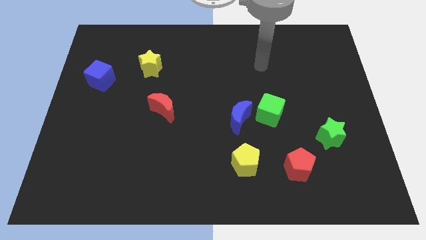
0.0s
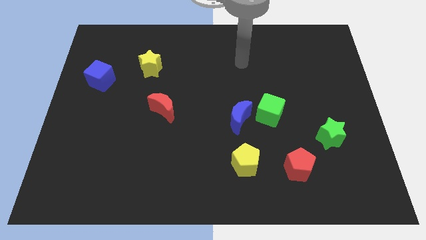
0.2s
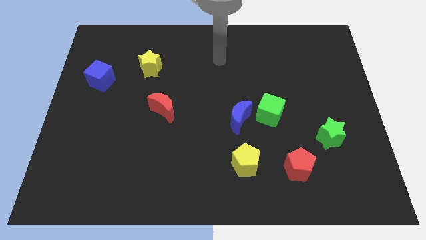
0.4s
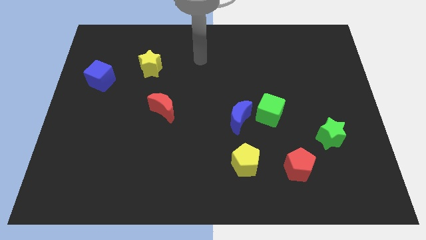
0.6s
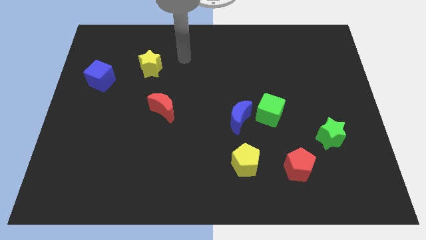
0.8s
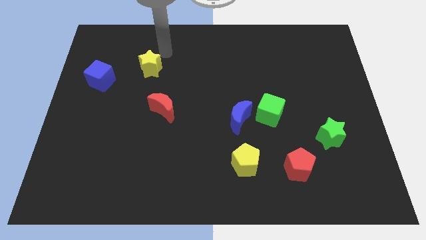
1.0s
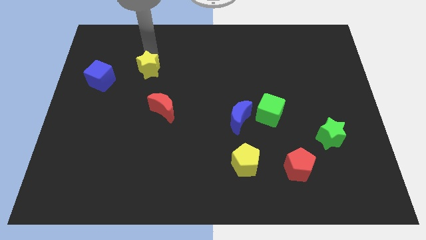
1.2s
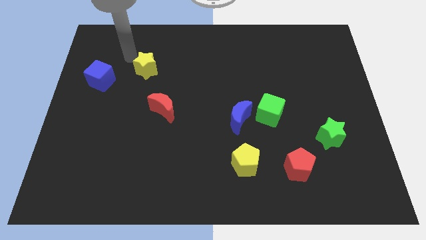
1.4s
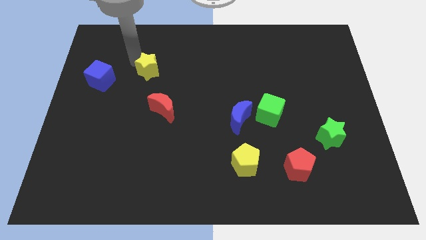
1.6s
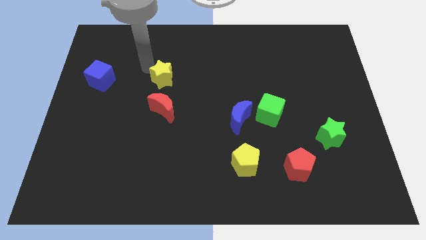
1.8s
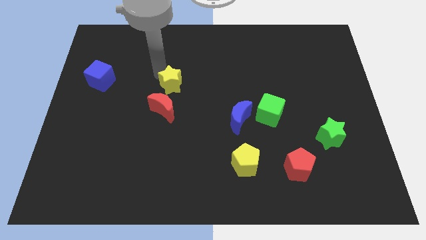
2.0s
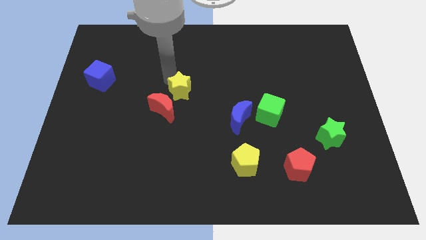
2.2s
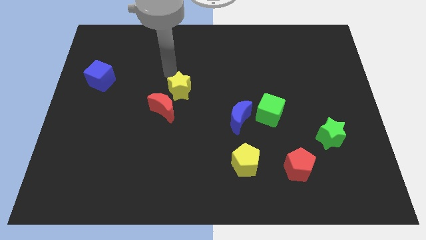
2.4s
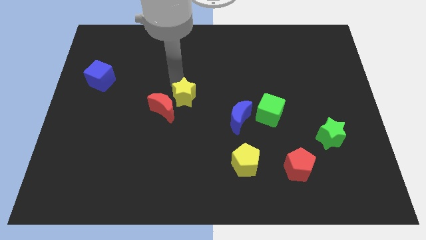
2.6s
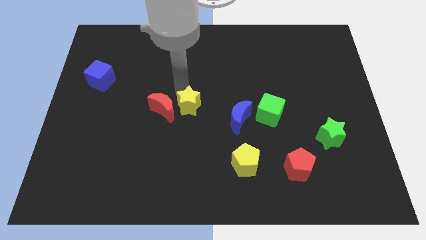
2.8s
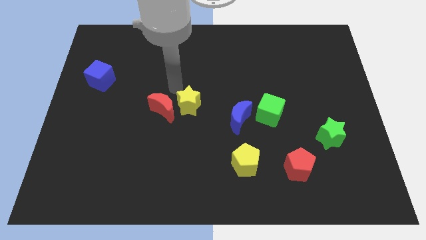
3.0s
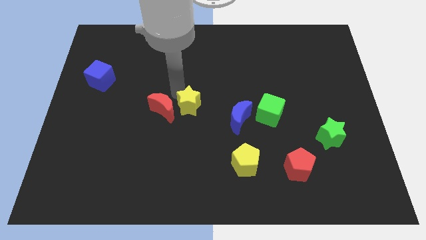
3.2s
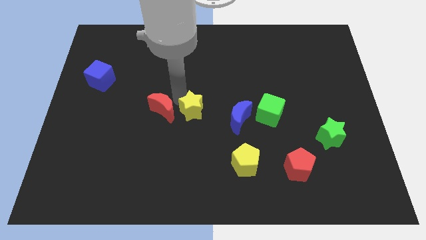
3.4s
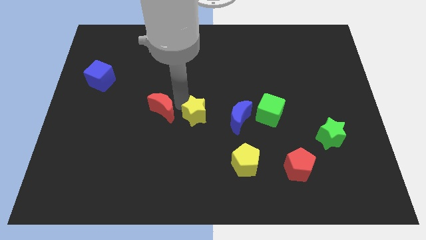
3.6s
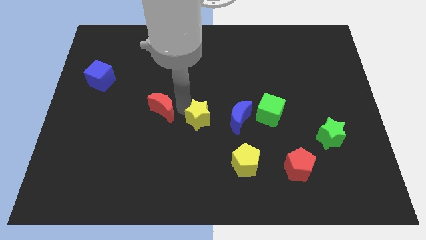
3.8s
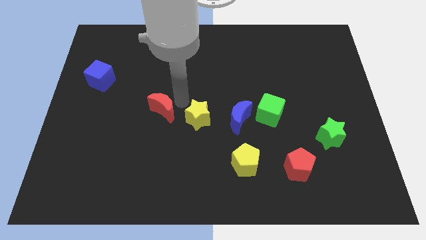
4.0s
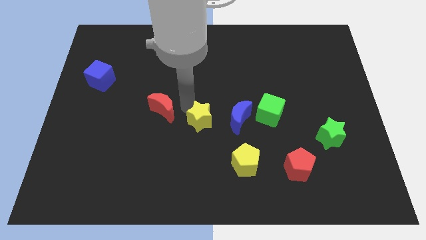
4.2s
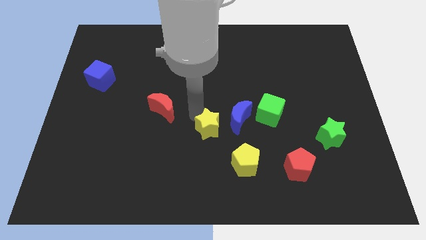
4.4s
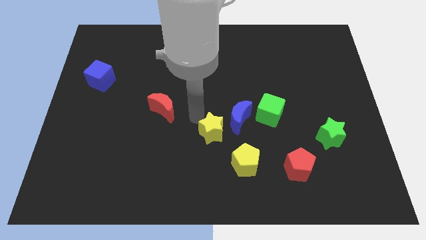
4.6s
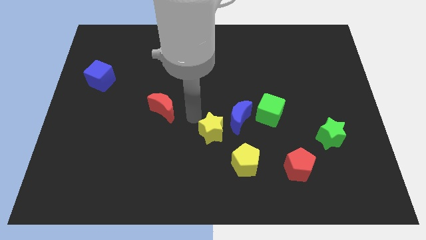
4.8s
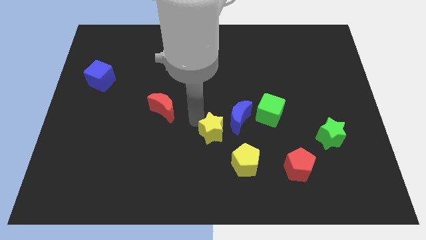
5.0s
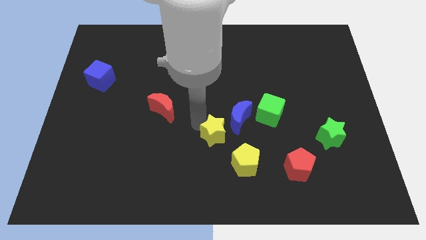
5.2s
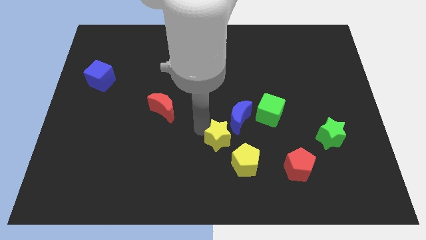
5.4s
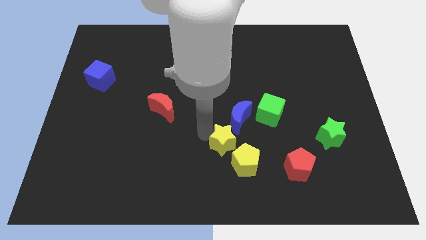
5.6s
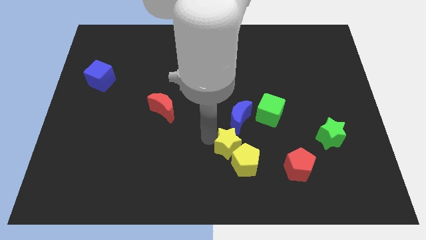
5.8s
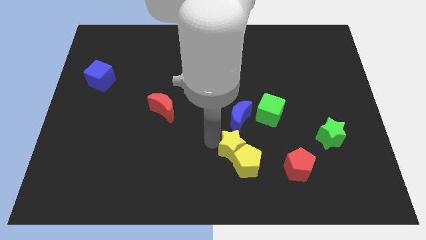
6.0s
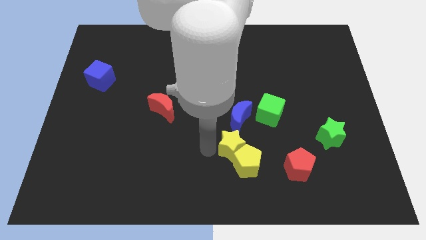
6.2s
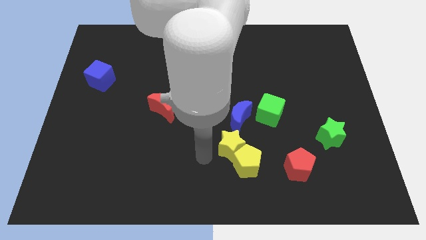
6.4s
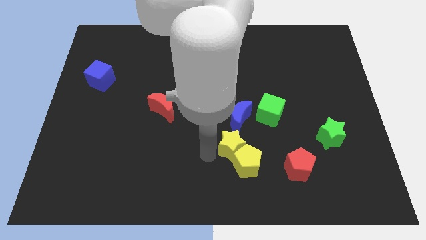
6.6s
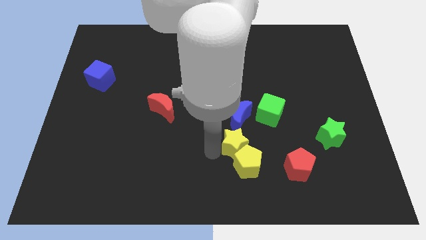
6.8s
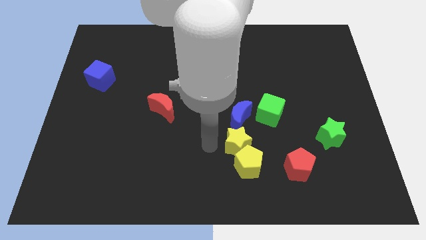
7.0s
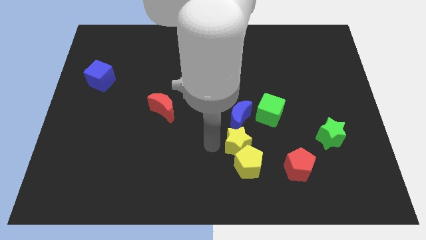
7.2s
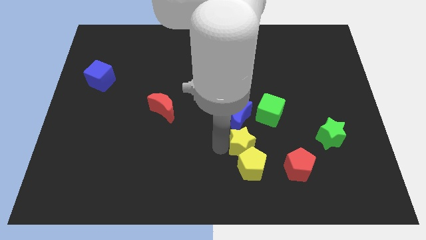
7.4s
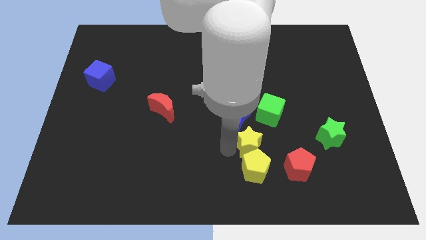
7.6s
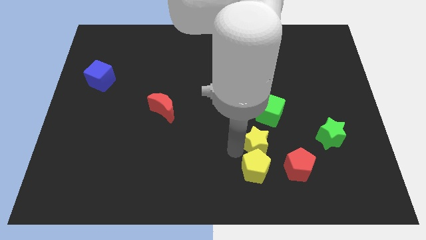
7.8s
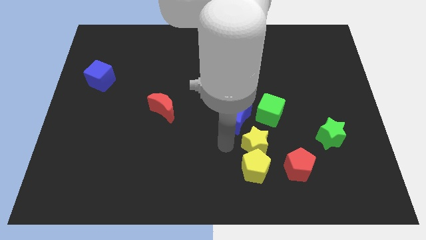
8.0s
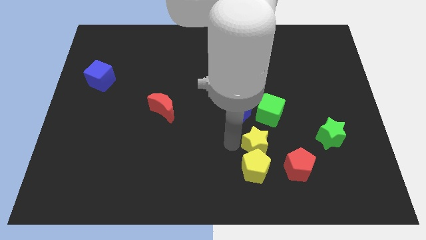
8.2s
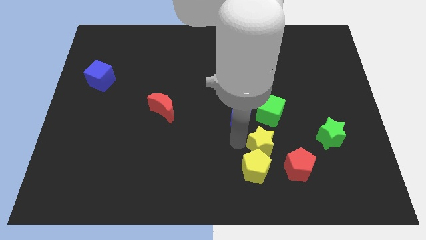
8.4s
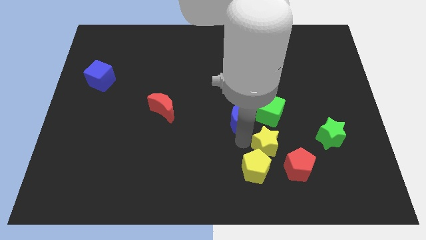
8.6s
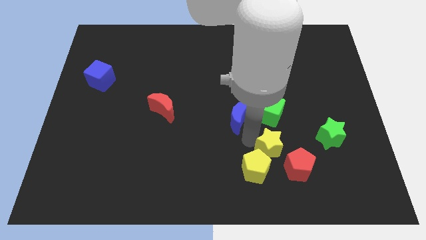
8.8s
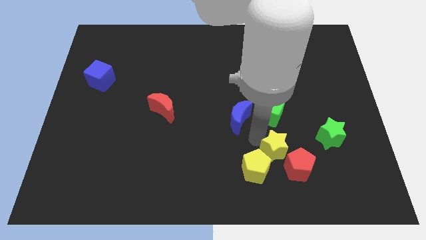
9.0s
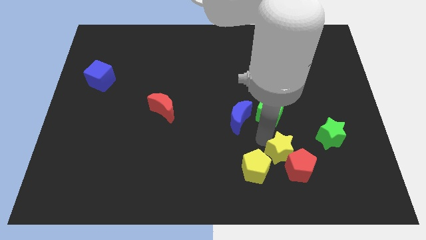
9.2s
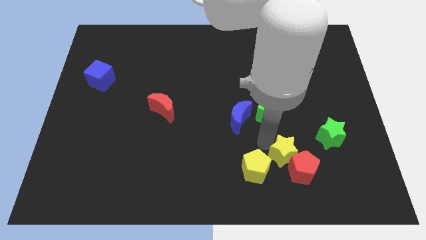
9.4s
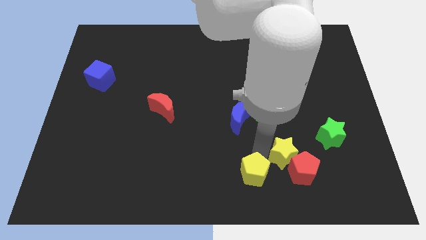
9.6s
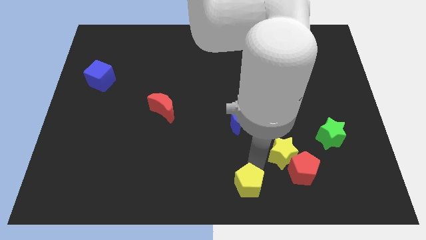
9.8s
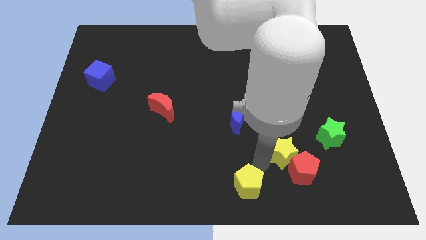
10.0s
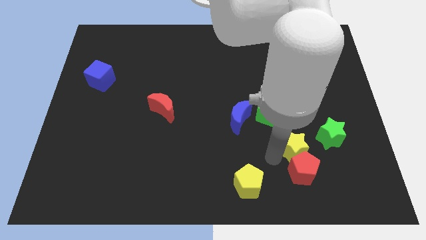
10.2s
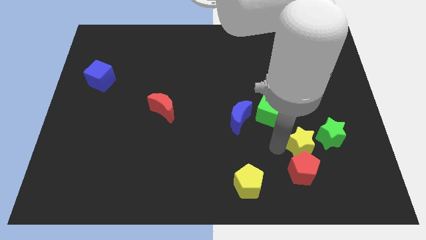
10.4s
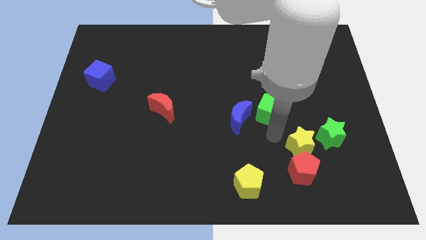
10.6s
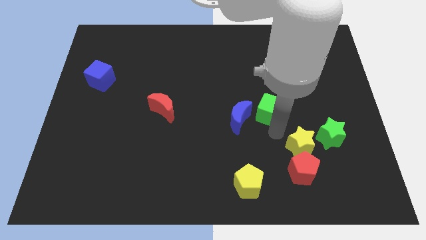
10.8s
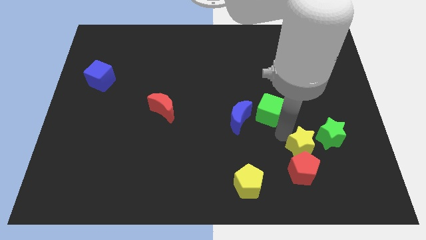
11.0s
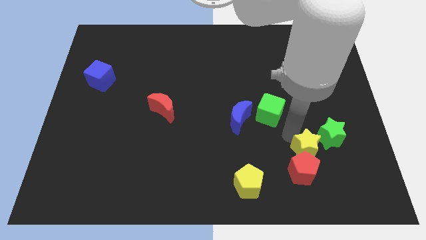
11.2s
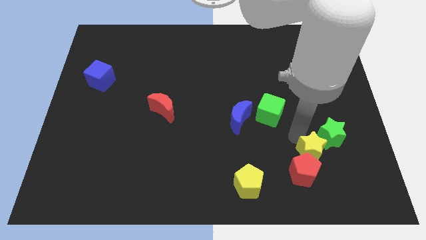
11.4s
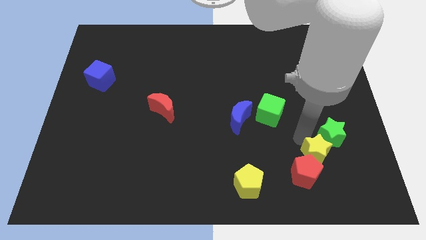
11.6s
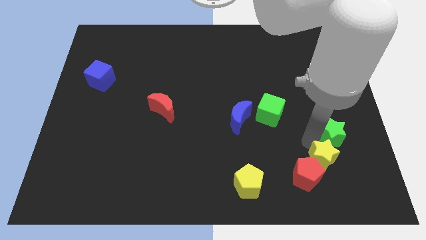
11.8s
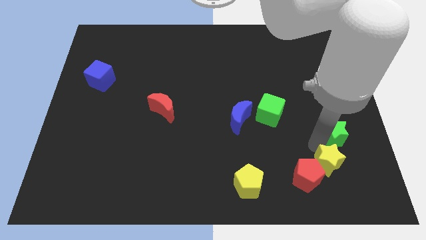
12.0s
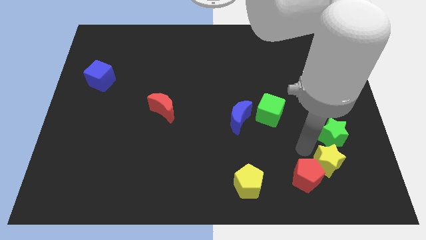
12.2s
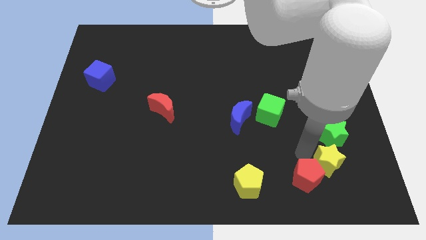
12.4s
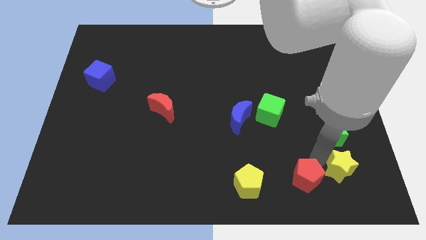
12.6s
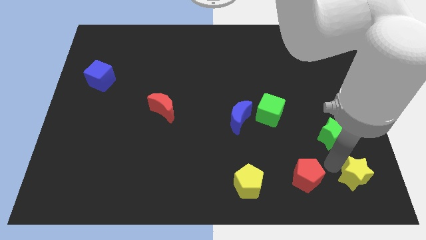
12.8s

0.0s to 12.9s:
move the yellow star to the bottom right of the board
